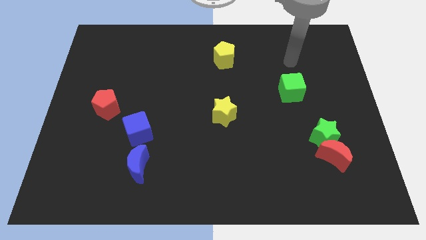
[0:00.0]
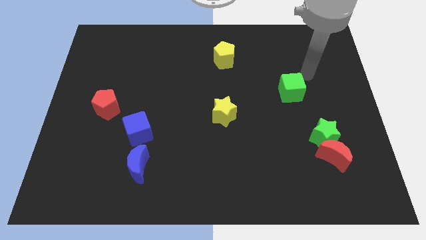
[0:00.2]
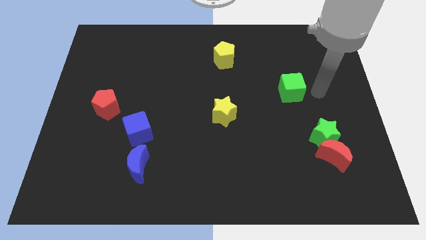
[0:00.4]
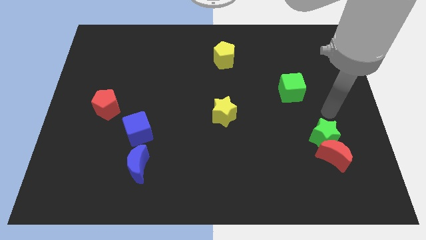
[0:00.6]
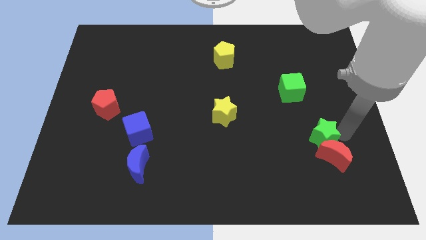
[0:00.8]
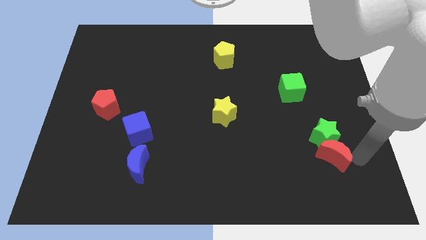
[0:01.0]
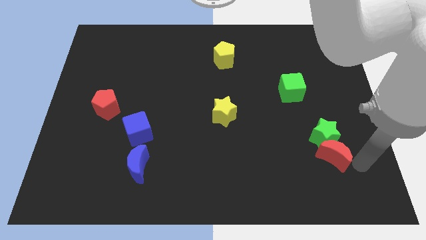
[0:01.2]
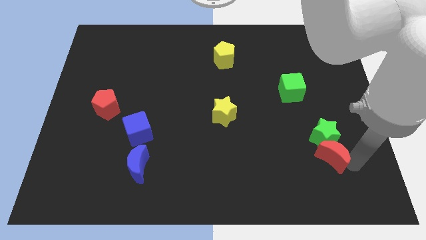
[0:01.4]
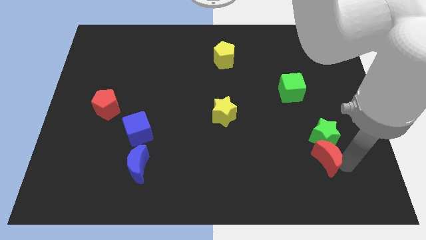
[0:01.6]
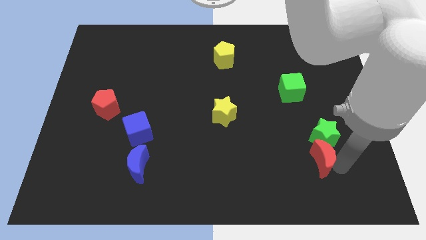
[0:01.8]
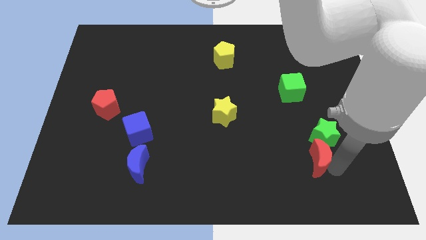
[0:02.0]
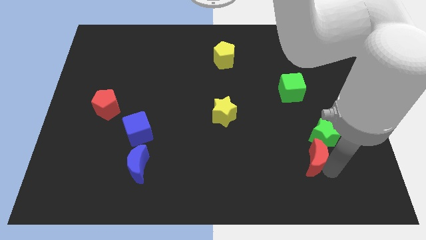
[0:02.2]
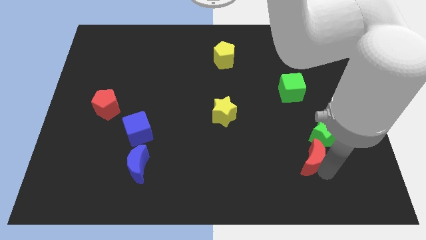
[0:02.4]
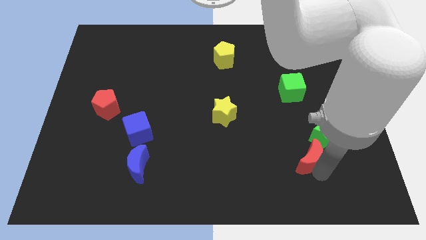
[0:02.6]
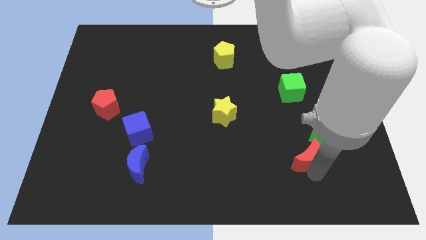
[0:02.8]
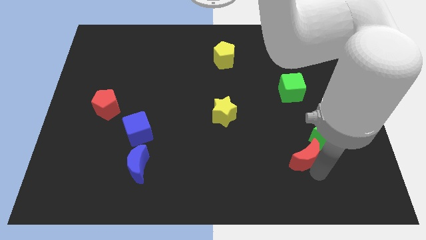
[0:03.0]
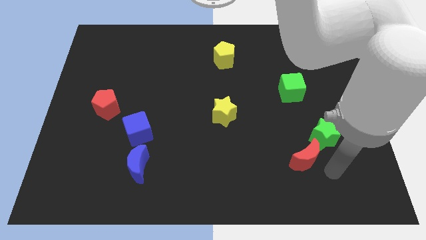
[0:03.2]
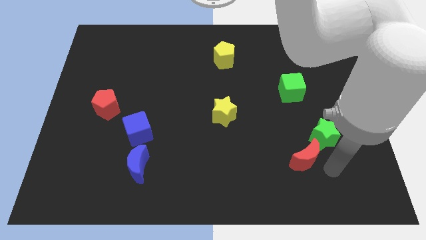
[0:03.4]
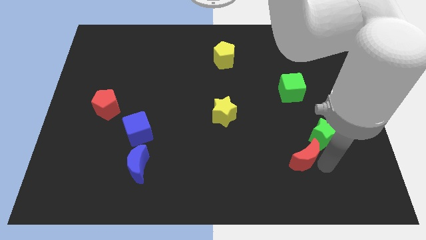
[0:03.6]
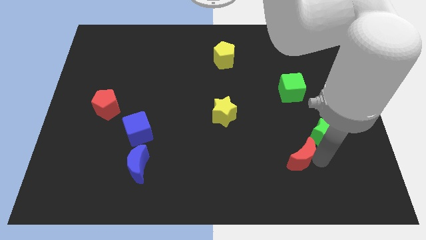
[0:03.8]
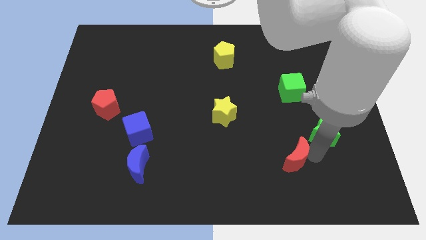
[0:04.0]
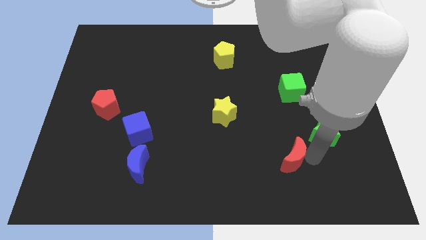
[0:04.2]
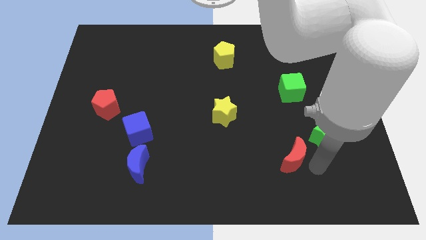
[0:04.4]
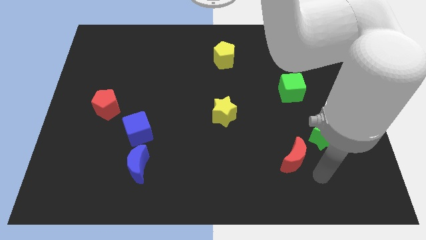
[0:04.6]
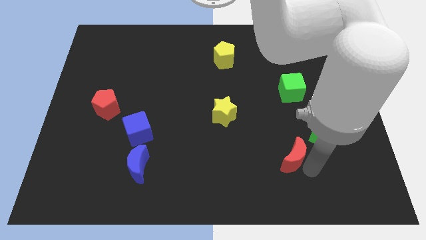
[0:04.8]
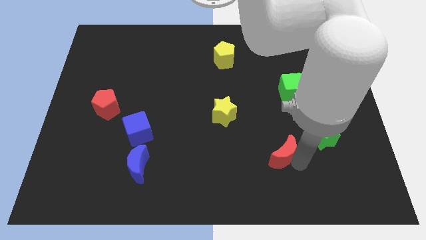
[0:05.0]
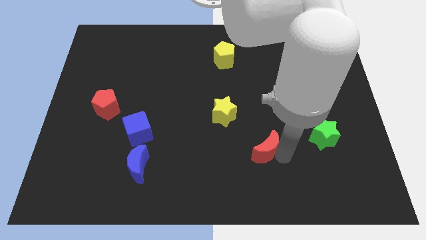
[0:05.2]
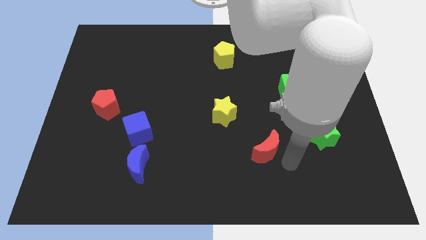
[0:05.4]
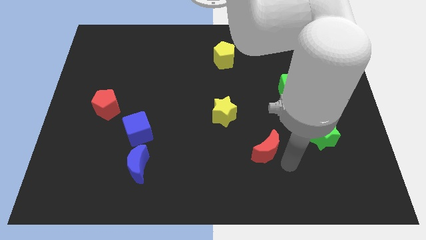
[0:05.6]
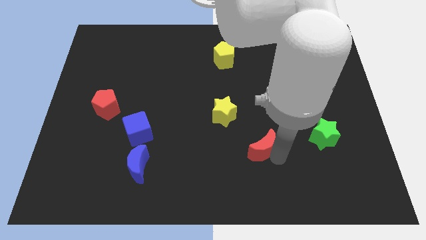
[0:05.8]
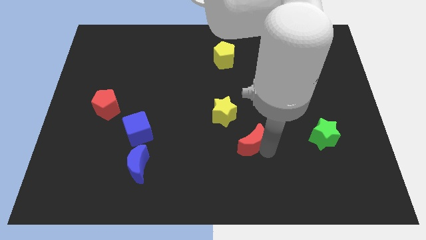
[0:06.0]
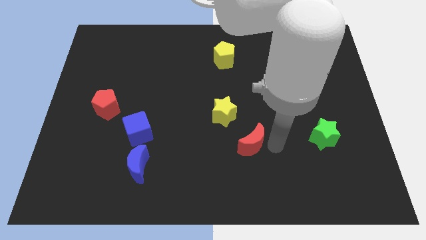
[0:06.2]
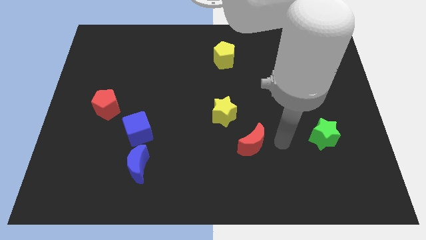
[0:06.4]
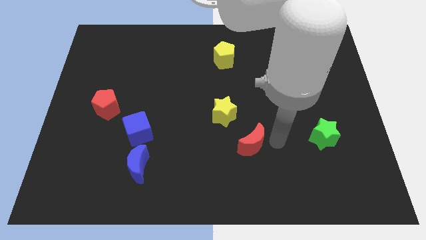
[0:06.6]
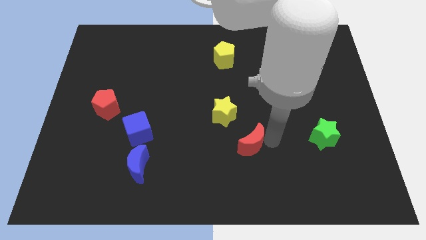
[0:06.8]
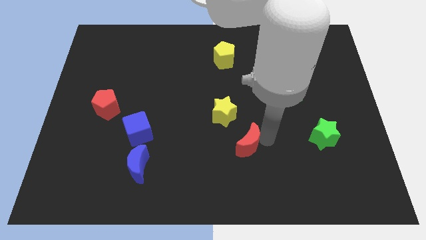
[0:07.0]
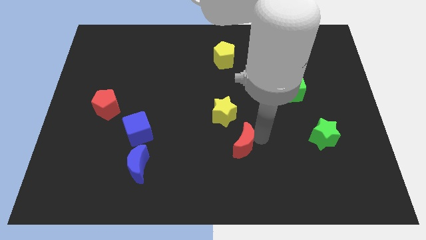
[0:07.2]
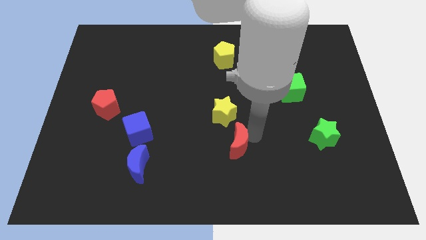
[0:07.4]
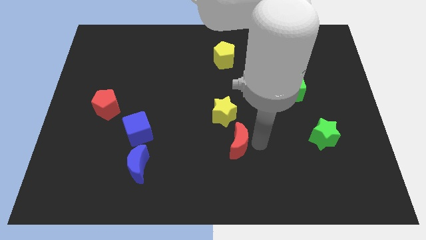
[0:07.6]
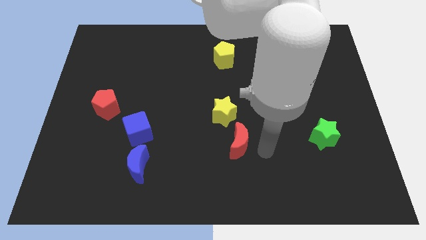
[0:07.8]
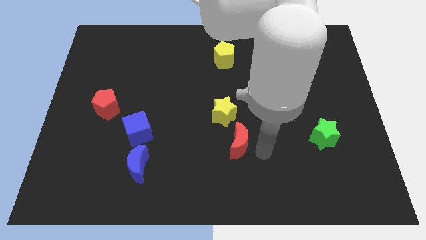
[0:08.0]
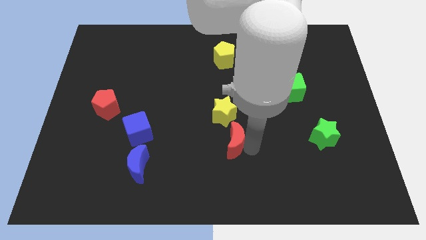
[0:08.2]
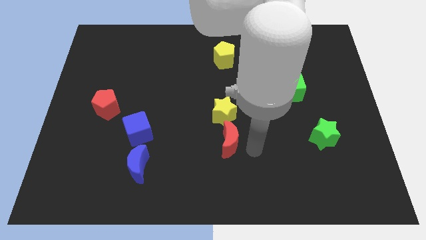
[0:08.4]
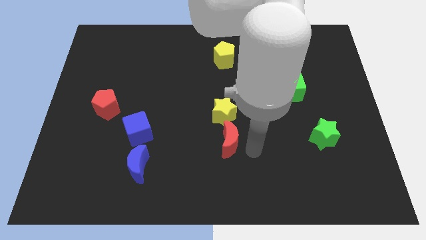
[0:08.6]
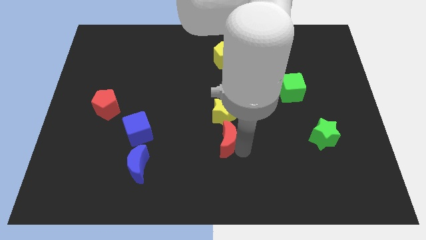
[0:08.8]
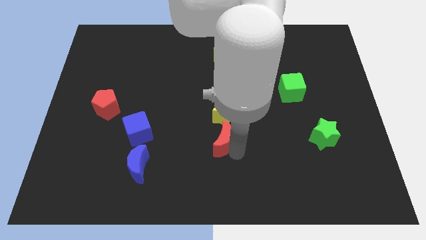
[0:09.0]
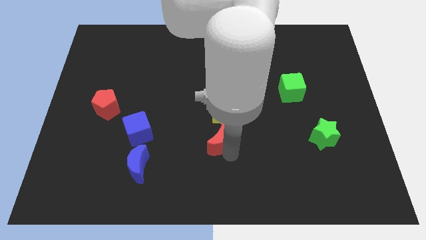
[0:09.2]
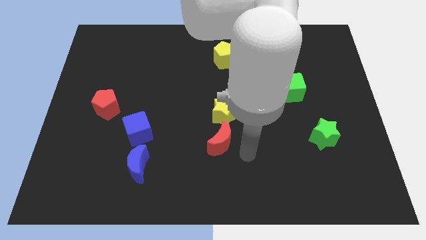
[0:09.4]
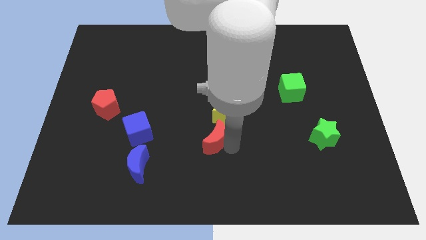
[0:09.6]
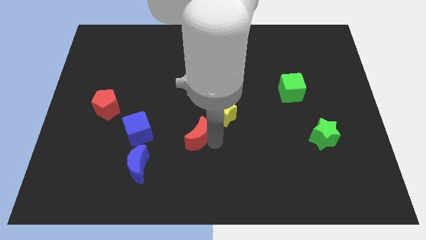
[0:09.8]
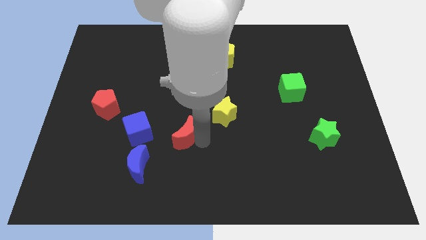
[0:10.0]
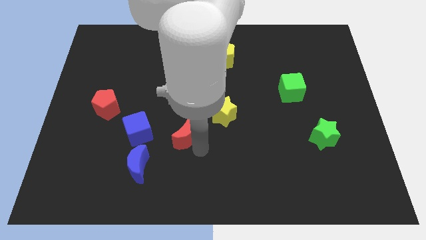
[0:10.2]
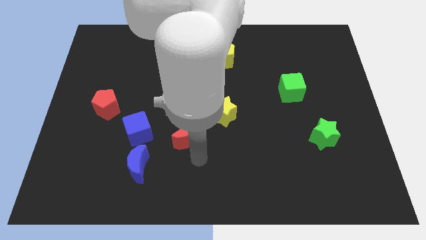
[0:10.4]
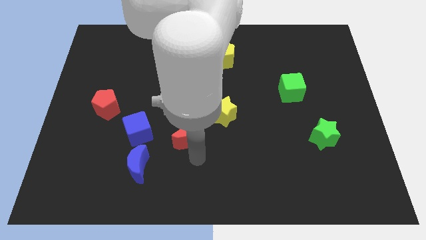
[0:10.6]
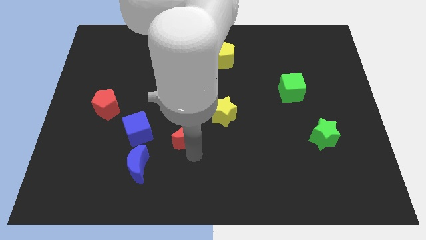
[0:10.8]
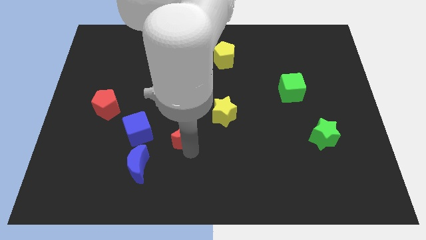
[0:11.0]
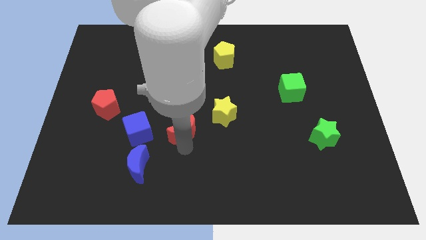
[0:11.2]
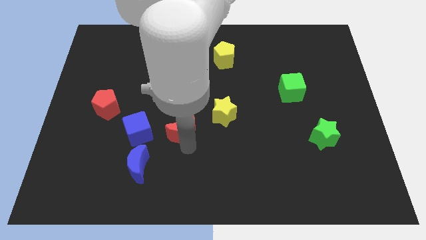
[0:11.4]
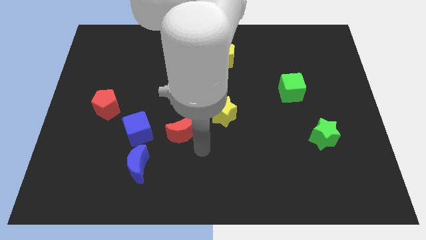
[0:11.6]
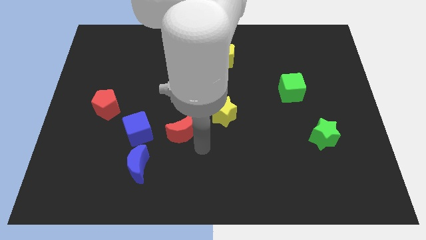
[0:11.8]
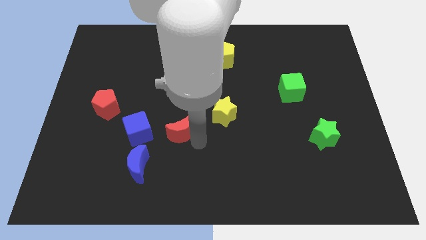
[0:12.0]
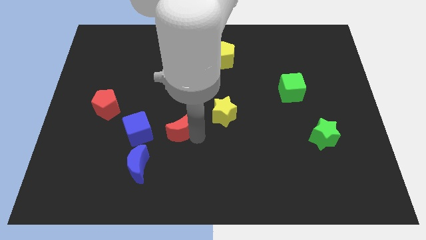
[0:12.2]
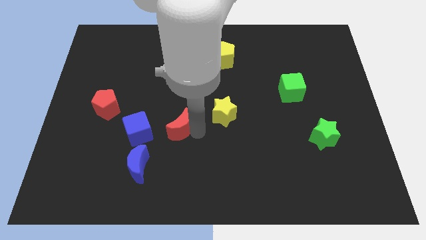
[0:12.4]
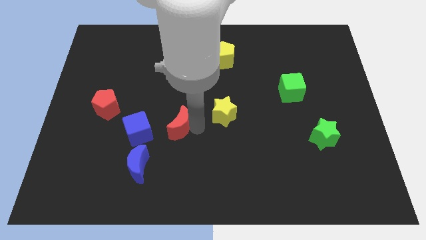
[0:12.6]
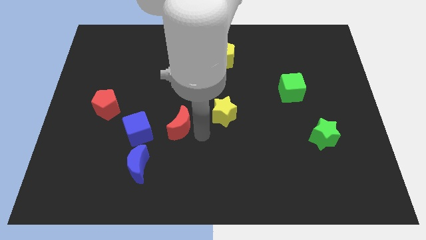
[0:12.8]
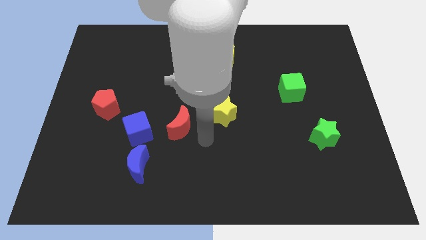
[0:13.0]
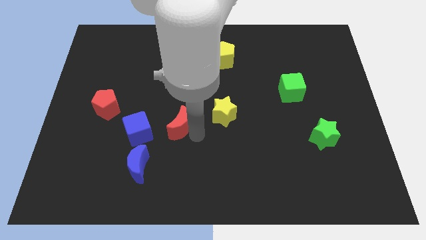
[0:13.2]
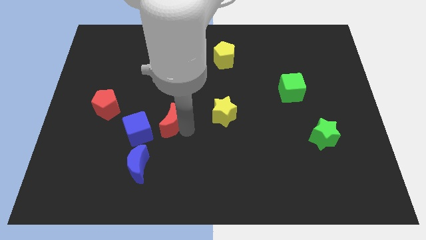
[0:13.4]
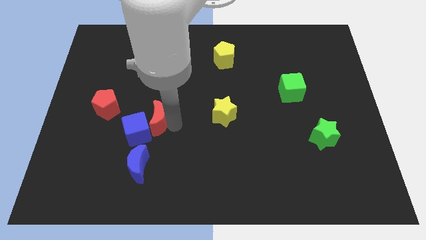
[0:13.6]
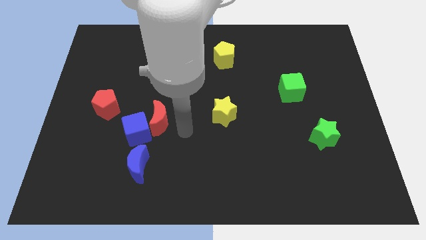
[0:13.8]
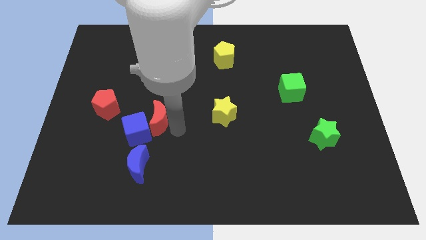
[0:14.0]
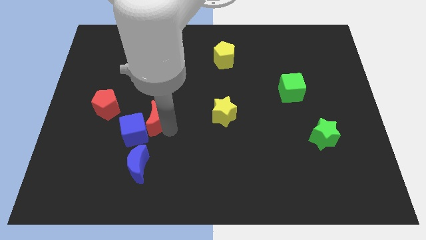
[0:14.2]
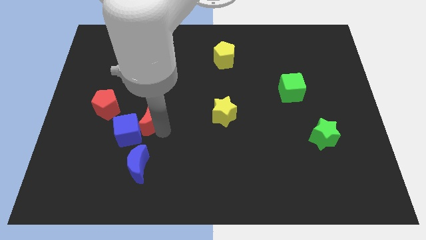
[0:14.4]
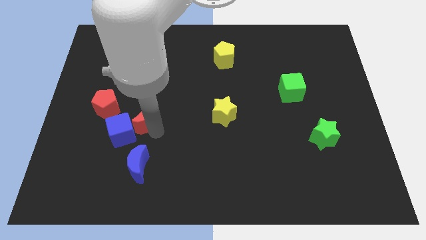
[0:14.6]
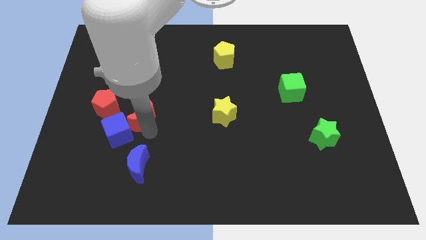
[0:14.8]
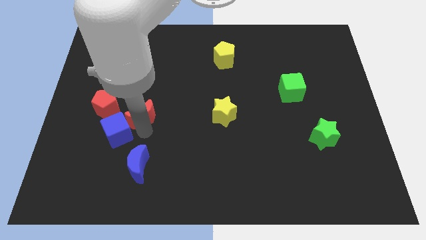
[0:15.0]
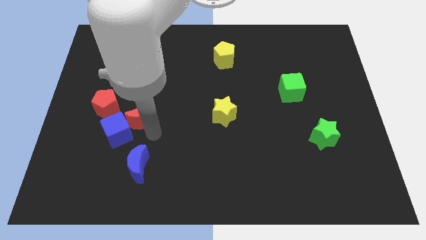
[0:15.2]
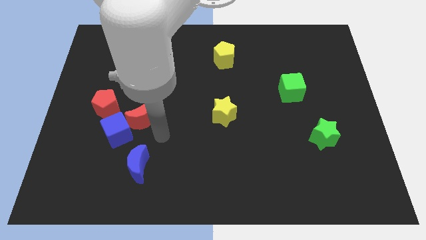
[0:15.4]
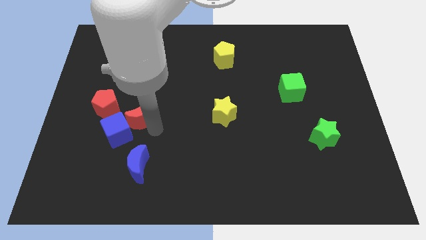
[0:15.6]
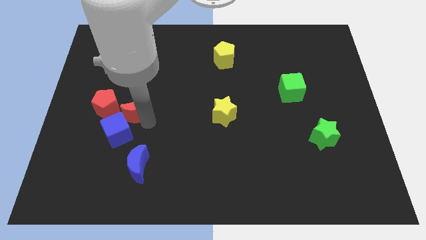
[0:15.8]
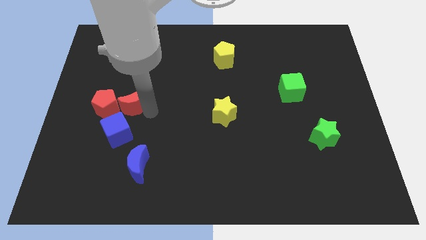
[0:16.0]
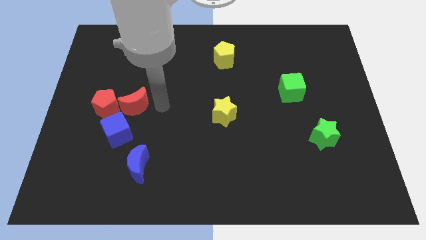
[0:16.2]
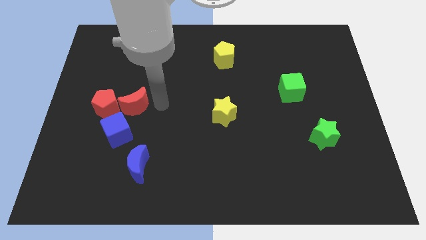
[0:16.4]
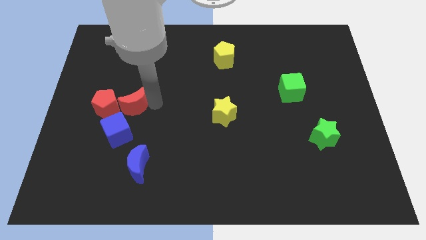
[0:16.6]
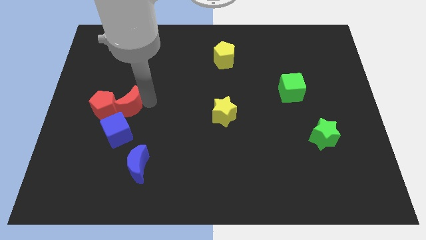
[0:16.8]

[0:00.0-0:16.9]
put the red moon next to the red pentagon
